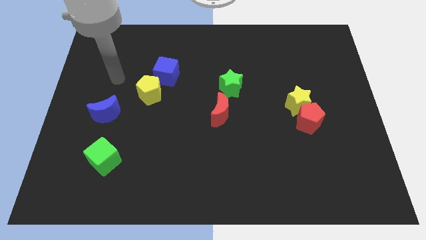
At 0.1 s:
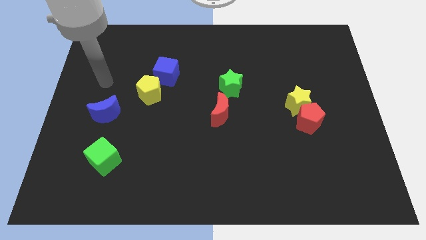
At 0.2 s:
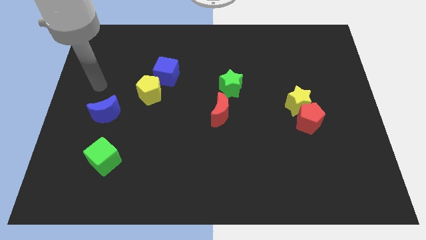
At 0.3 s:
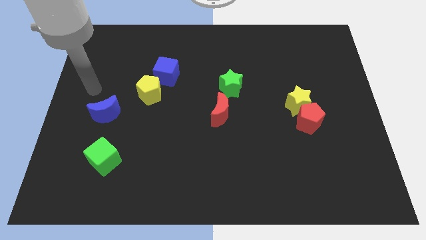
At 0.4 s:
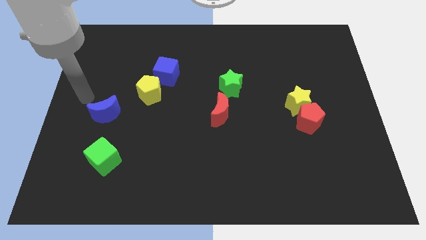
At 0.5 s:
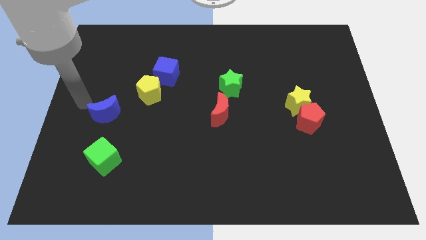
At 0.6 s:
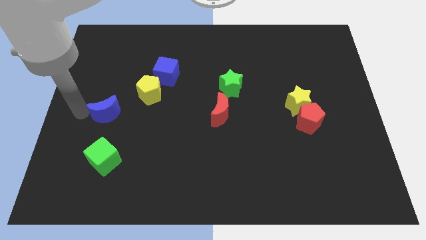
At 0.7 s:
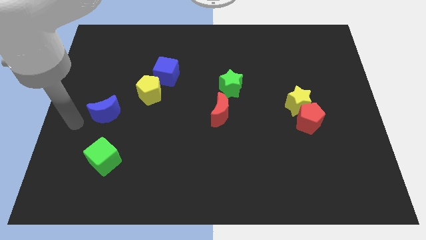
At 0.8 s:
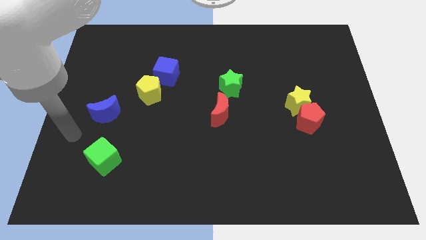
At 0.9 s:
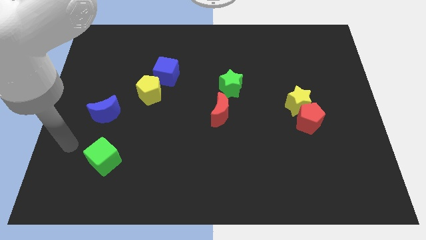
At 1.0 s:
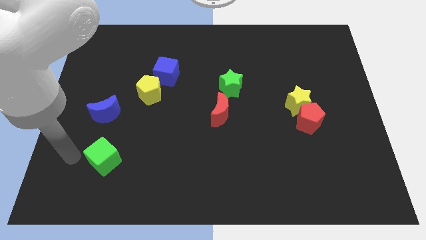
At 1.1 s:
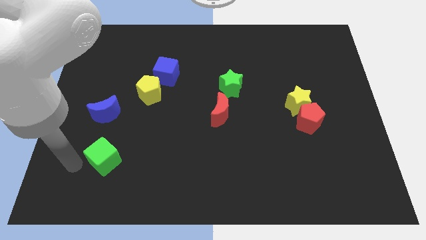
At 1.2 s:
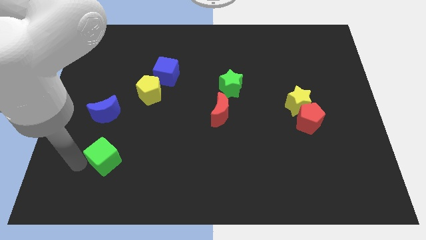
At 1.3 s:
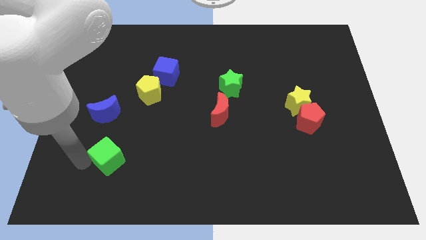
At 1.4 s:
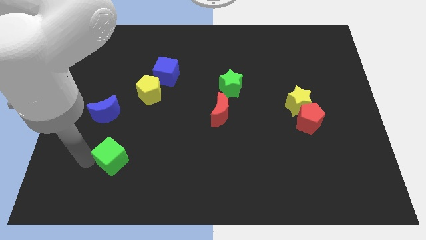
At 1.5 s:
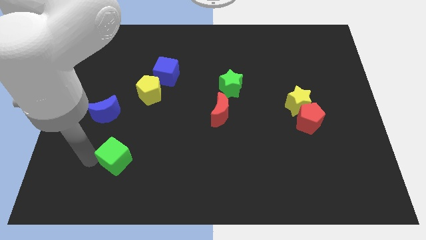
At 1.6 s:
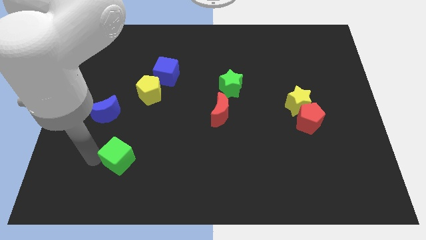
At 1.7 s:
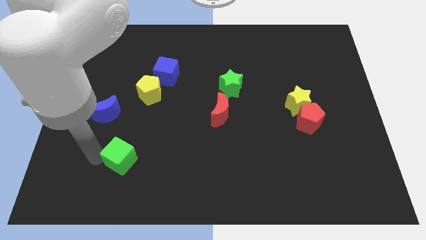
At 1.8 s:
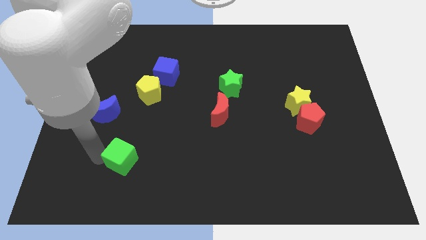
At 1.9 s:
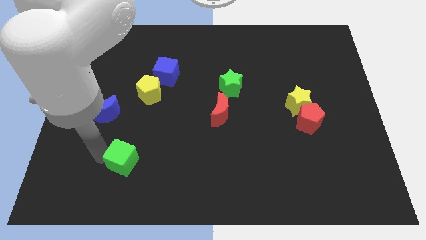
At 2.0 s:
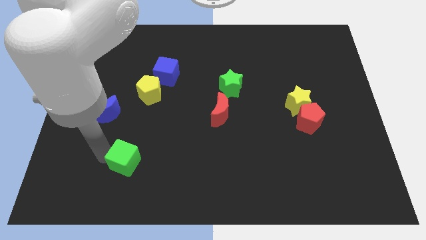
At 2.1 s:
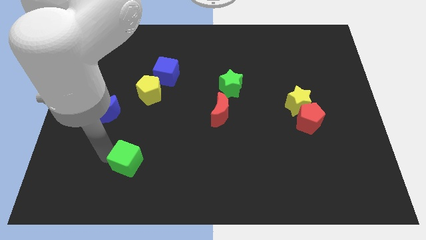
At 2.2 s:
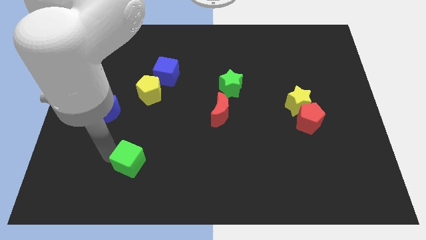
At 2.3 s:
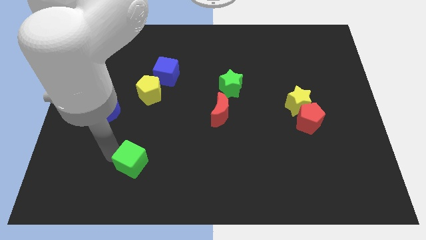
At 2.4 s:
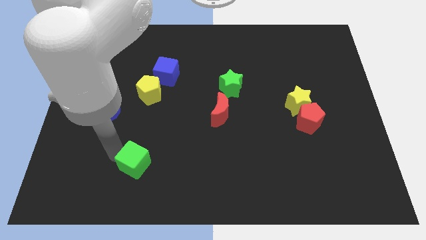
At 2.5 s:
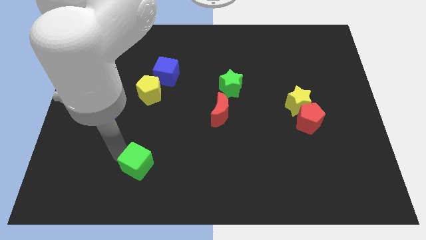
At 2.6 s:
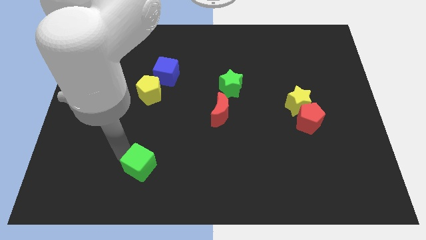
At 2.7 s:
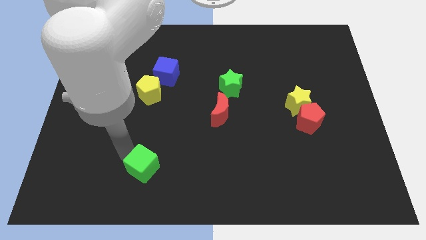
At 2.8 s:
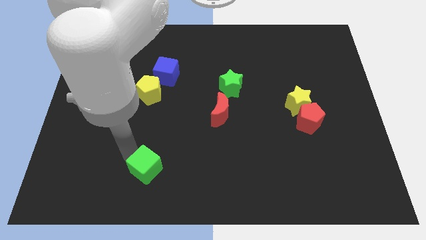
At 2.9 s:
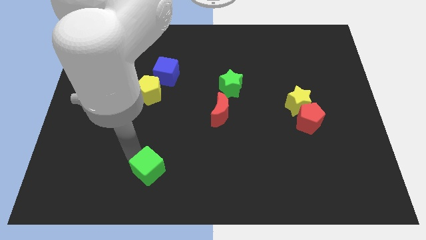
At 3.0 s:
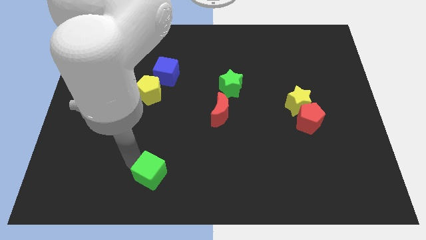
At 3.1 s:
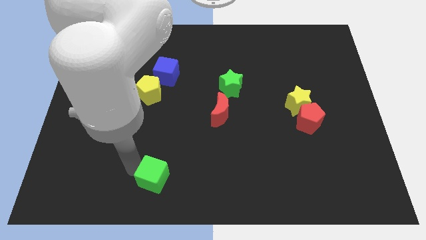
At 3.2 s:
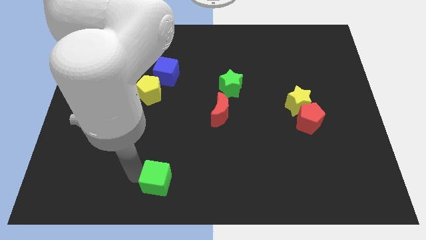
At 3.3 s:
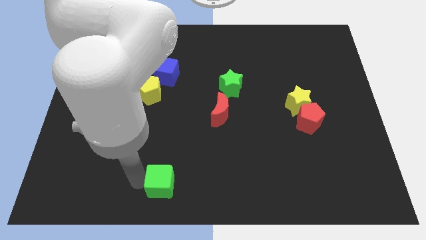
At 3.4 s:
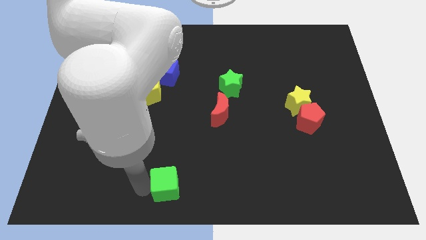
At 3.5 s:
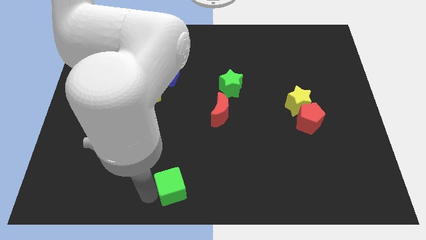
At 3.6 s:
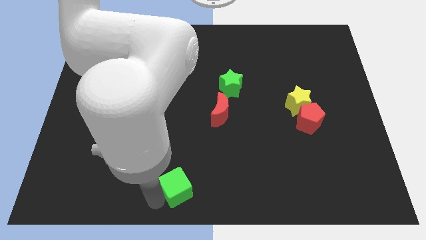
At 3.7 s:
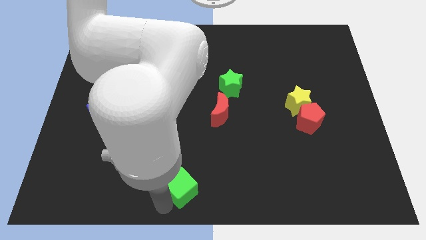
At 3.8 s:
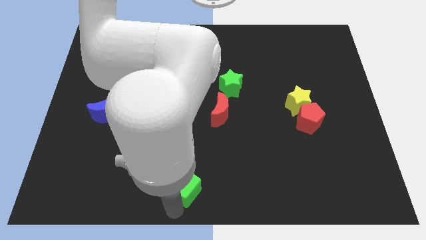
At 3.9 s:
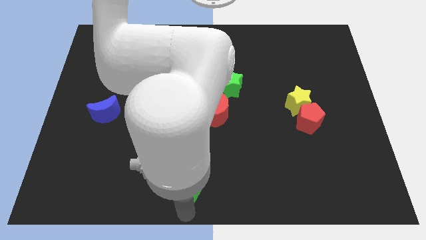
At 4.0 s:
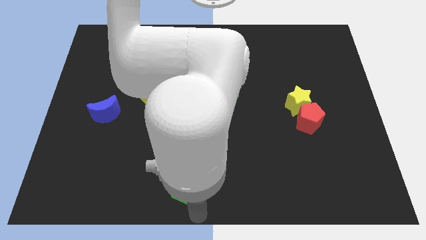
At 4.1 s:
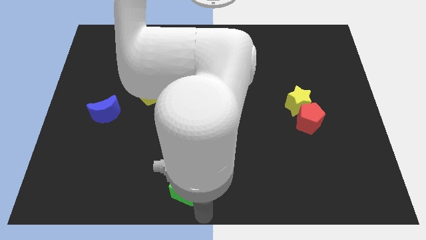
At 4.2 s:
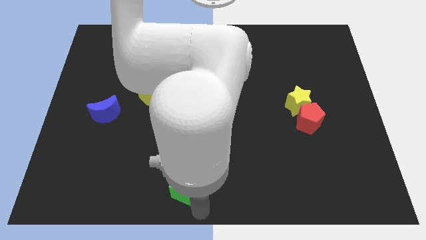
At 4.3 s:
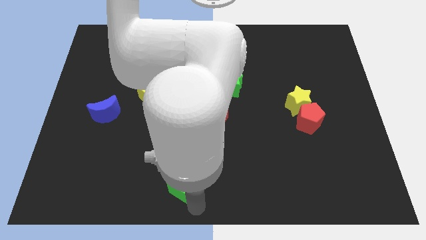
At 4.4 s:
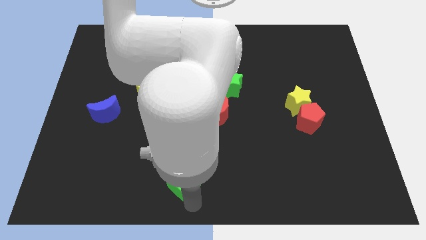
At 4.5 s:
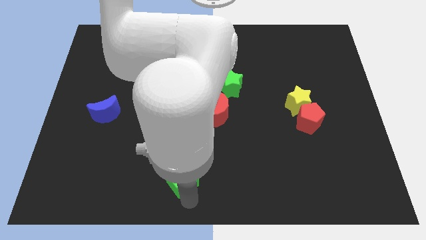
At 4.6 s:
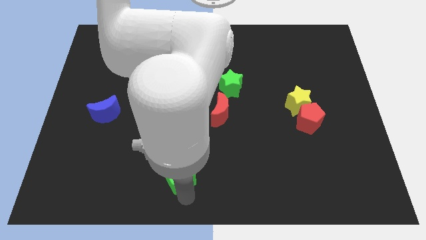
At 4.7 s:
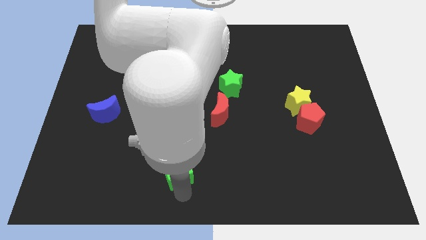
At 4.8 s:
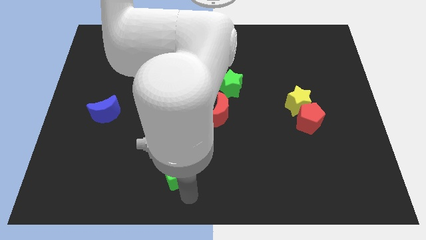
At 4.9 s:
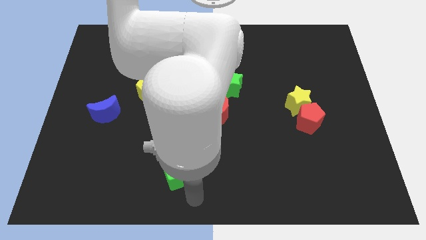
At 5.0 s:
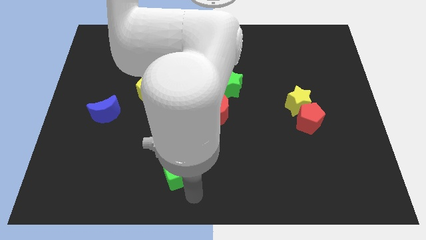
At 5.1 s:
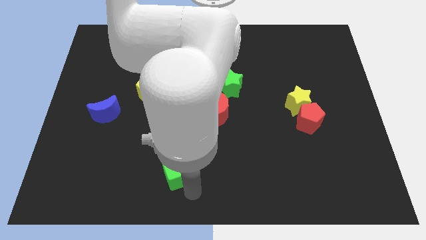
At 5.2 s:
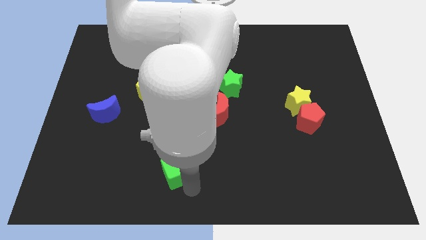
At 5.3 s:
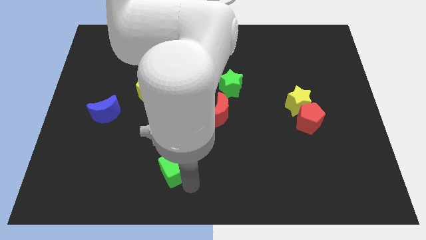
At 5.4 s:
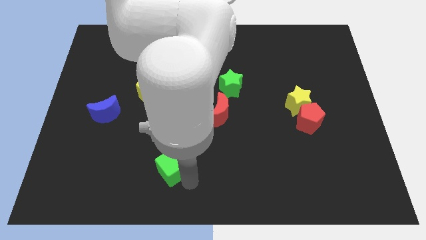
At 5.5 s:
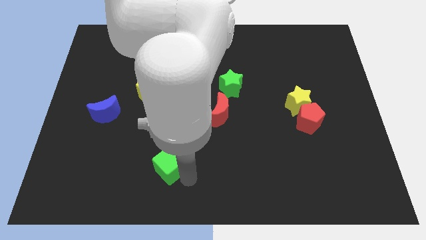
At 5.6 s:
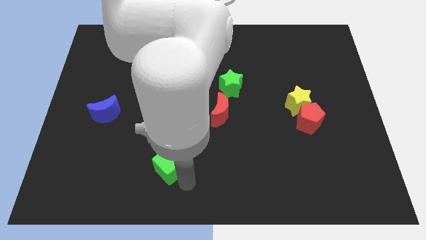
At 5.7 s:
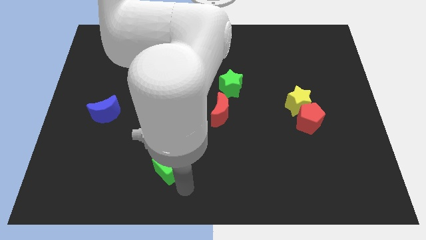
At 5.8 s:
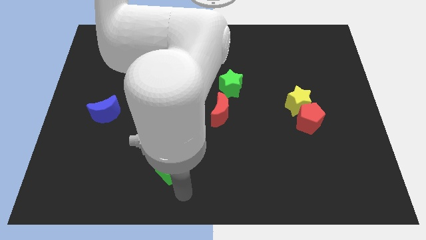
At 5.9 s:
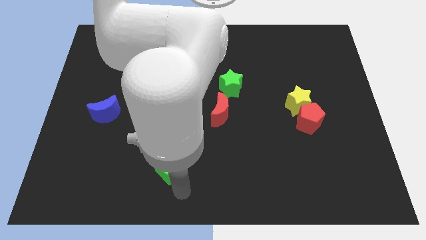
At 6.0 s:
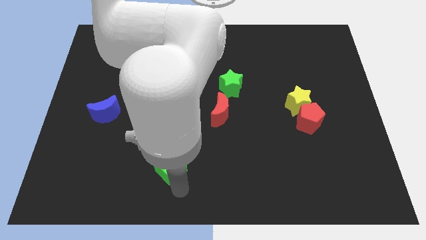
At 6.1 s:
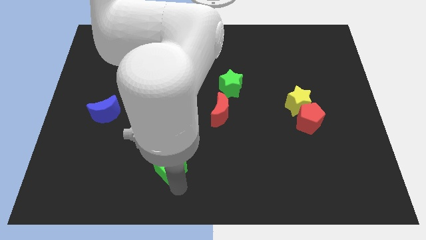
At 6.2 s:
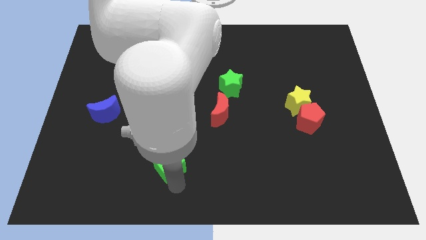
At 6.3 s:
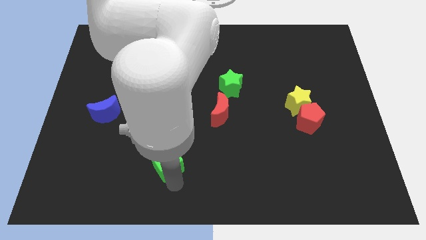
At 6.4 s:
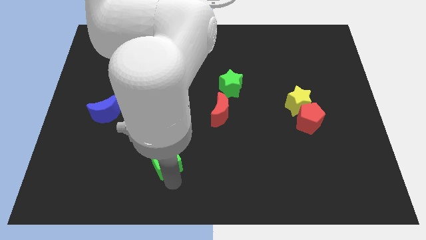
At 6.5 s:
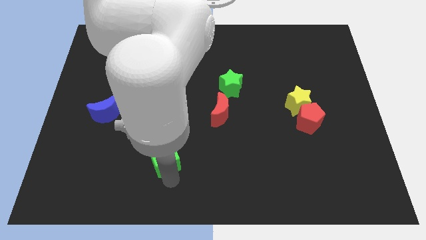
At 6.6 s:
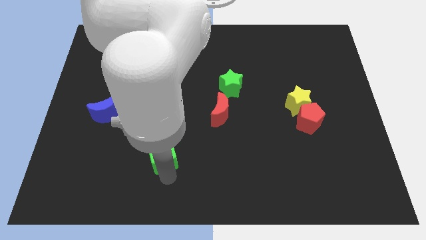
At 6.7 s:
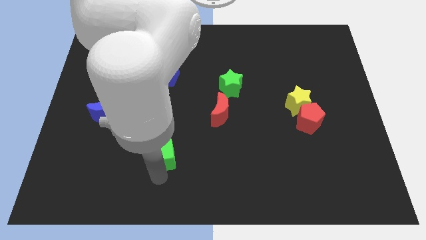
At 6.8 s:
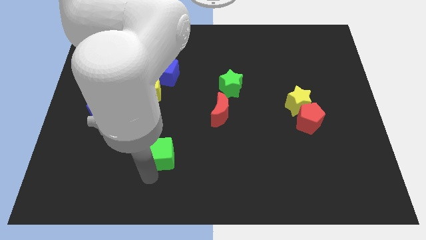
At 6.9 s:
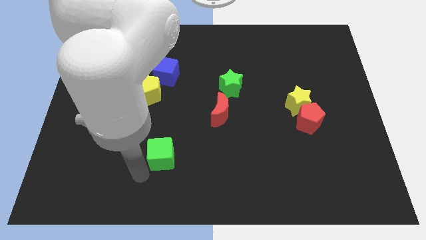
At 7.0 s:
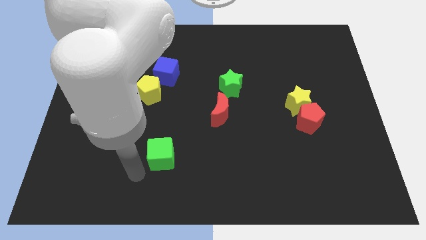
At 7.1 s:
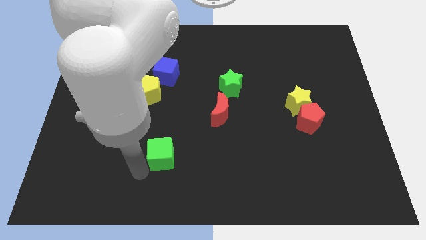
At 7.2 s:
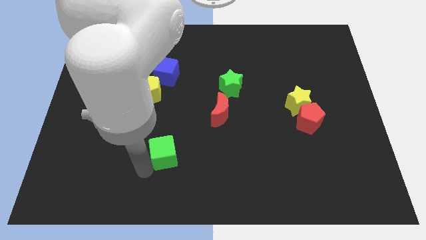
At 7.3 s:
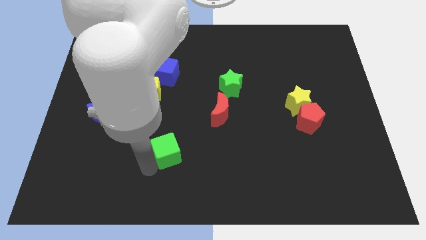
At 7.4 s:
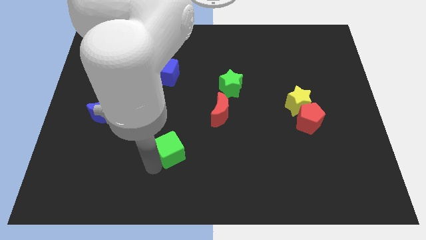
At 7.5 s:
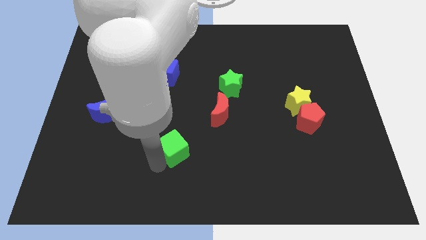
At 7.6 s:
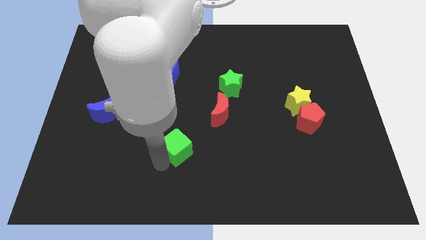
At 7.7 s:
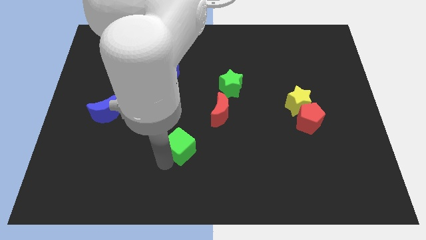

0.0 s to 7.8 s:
slide the green cube diagonally down and to the left of the red moon

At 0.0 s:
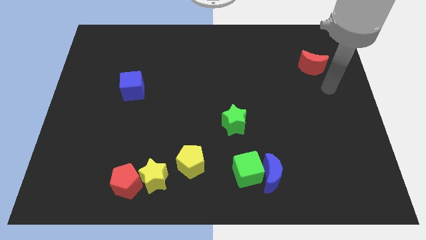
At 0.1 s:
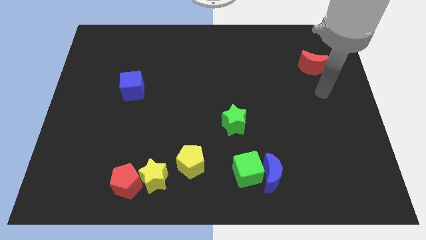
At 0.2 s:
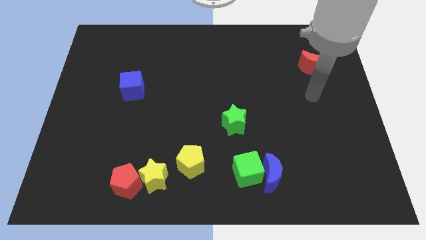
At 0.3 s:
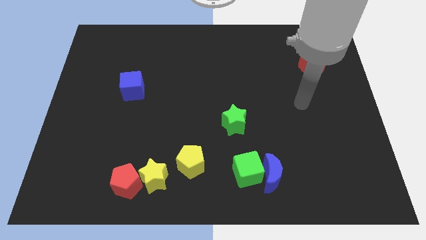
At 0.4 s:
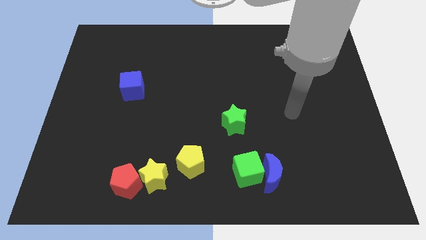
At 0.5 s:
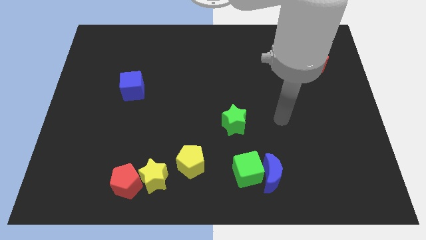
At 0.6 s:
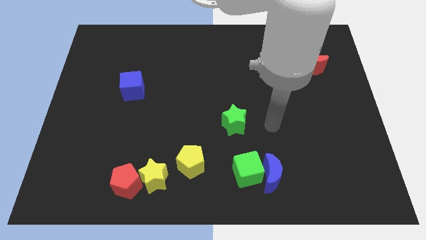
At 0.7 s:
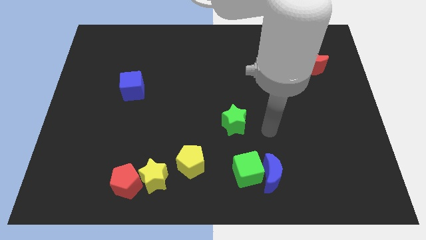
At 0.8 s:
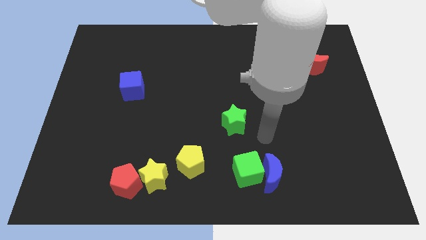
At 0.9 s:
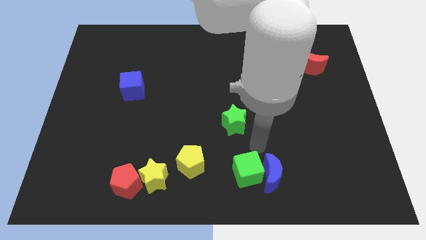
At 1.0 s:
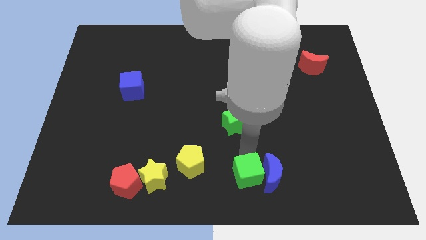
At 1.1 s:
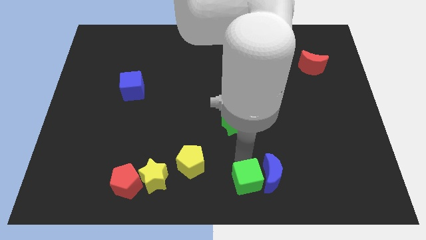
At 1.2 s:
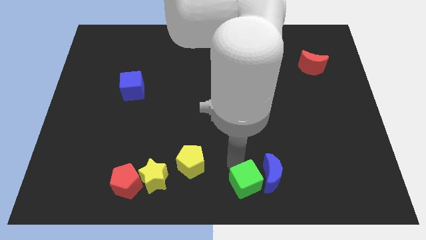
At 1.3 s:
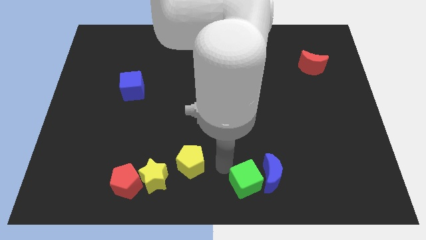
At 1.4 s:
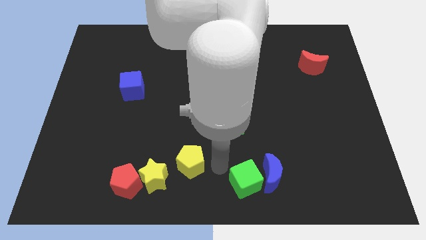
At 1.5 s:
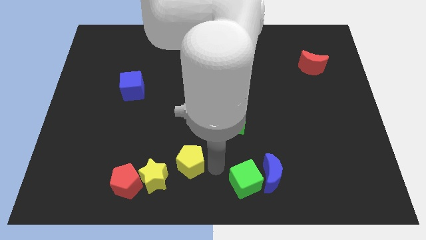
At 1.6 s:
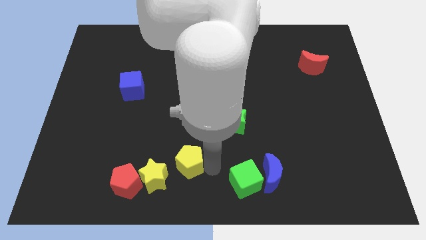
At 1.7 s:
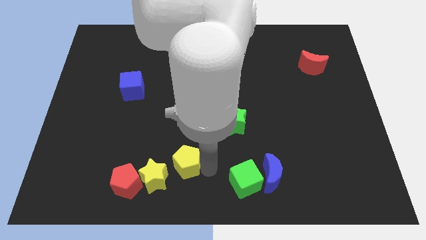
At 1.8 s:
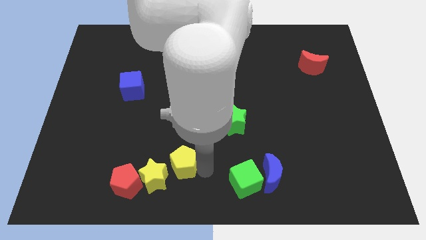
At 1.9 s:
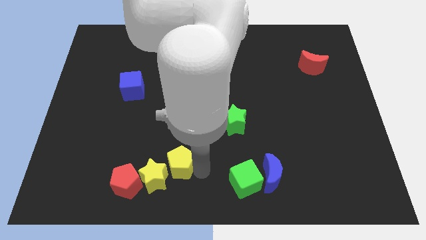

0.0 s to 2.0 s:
push the yellow pentagon to the top right of the red pentagon
